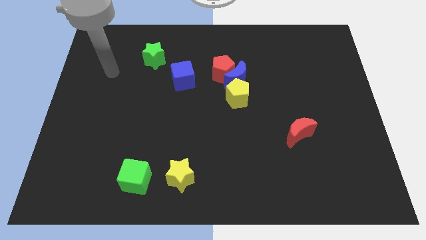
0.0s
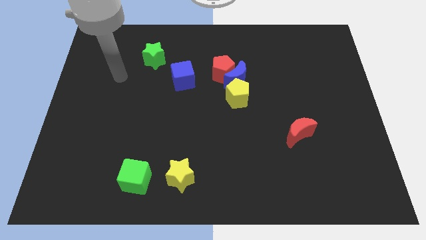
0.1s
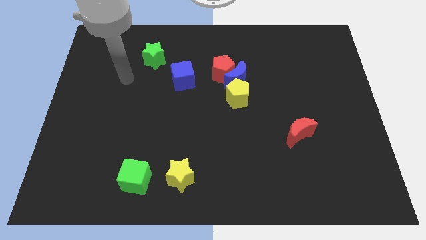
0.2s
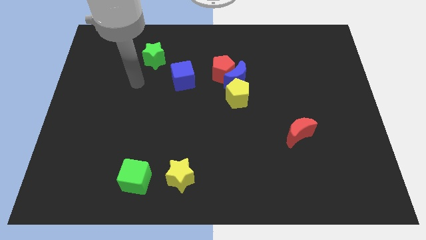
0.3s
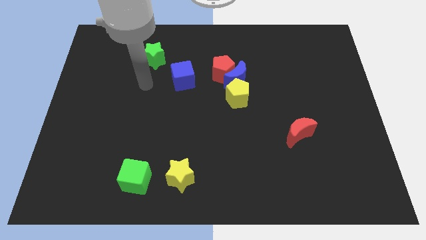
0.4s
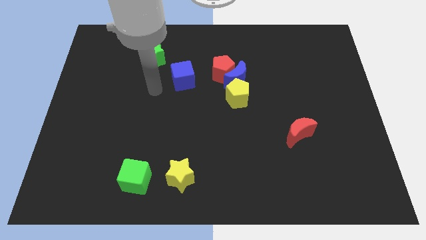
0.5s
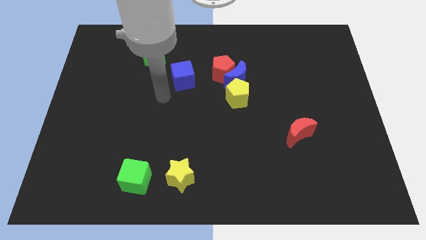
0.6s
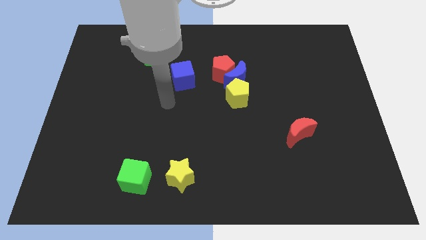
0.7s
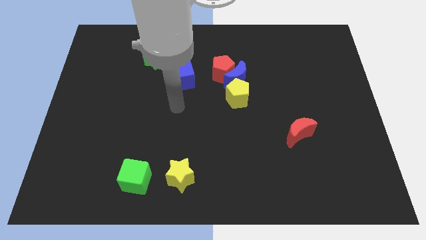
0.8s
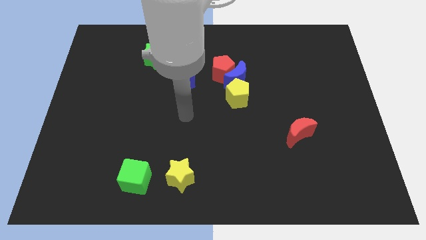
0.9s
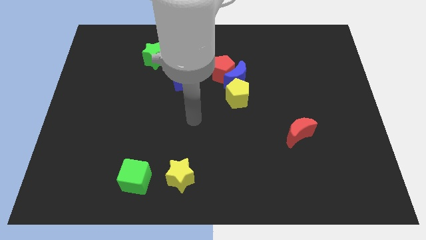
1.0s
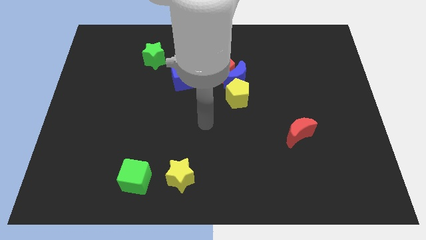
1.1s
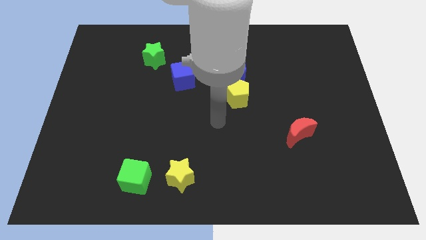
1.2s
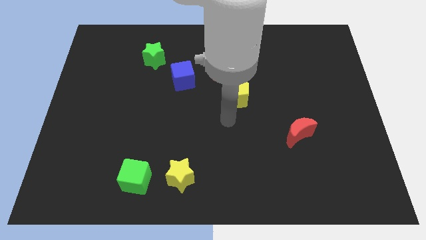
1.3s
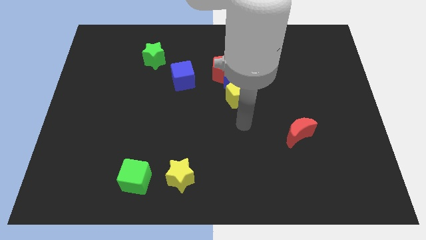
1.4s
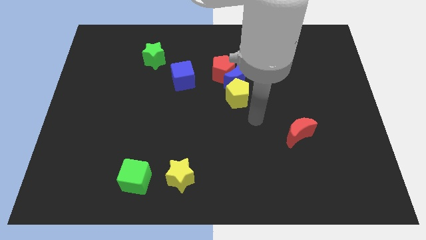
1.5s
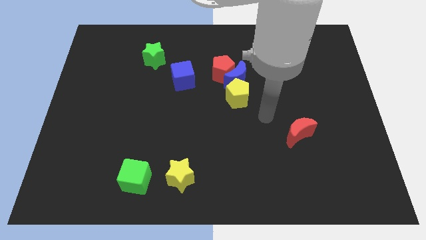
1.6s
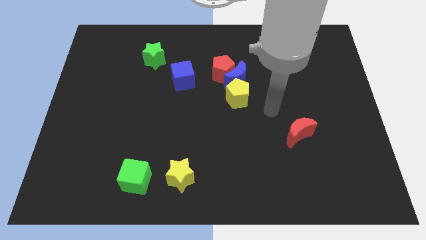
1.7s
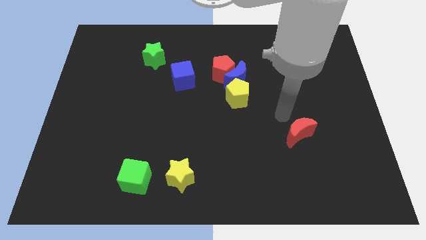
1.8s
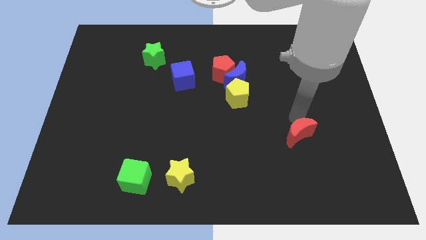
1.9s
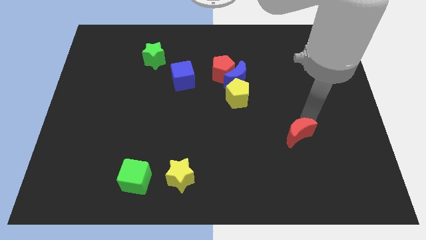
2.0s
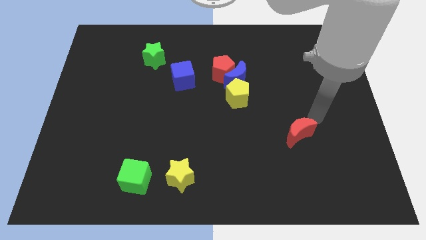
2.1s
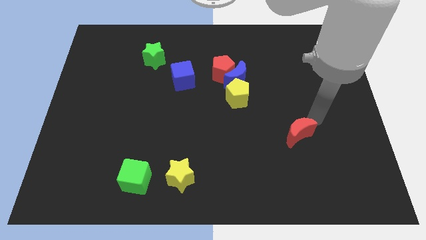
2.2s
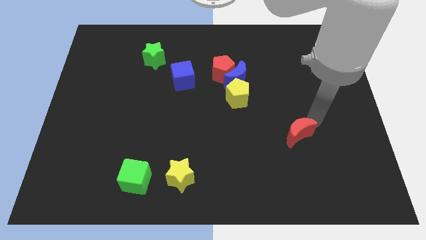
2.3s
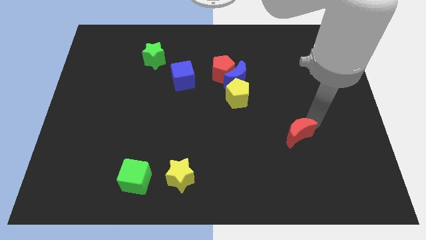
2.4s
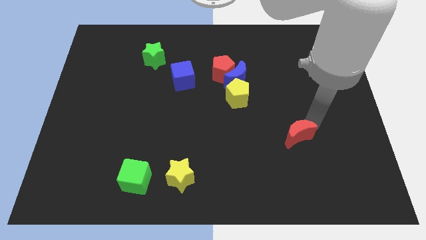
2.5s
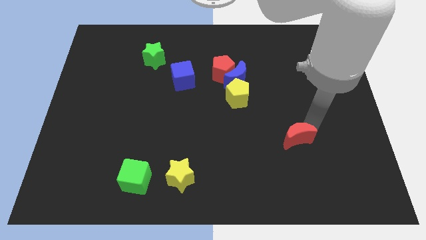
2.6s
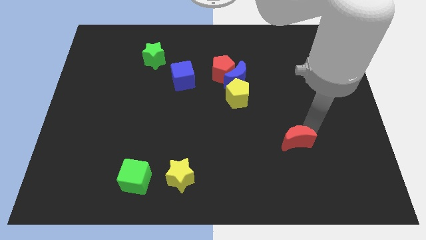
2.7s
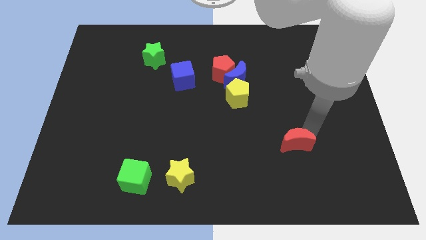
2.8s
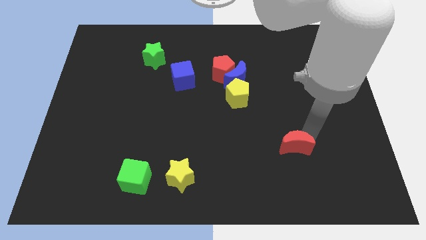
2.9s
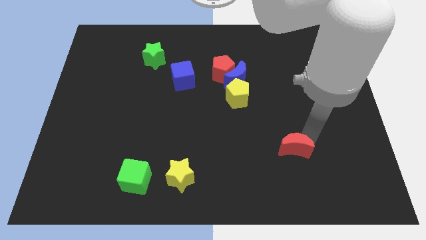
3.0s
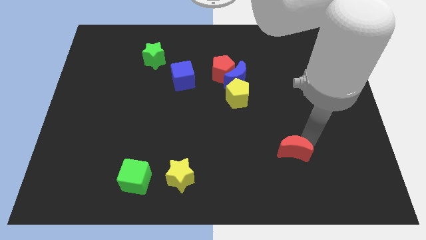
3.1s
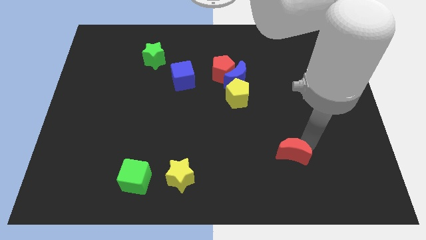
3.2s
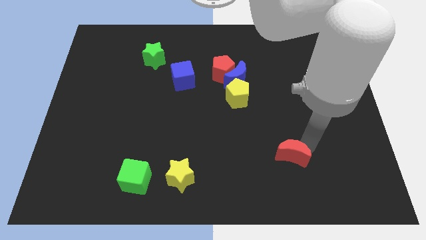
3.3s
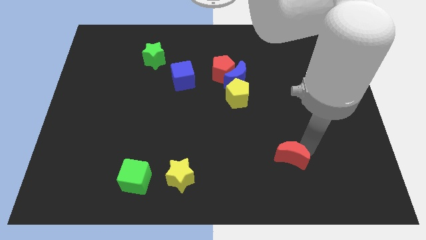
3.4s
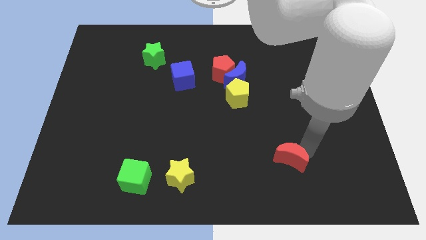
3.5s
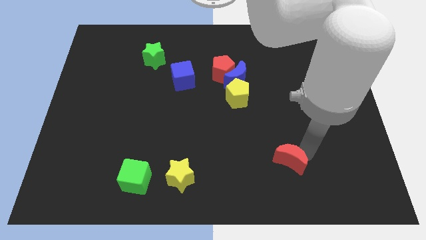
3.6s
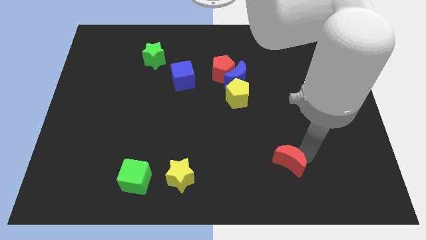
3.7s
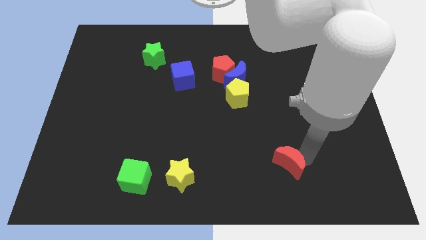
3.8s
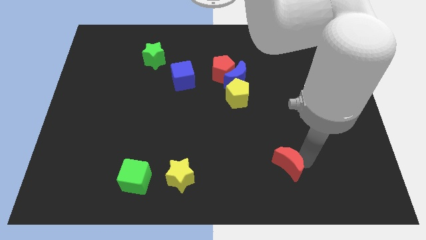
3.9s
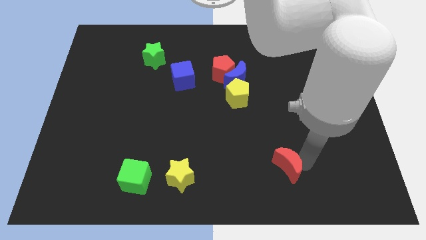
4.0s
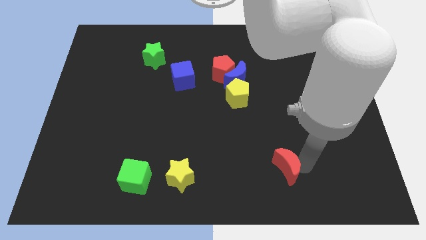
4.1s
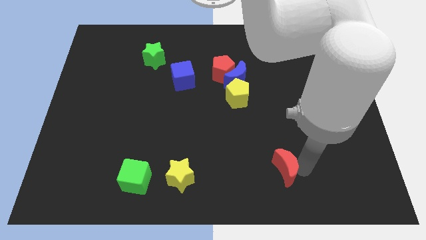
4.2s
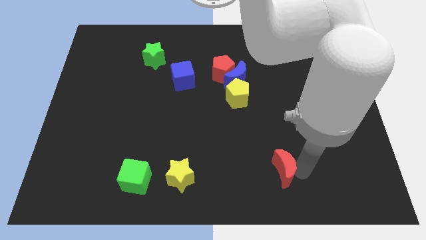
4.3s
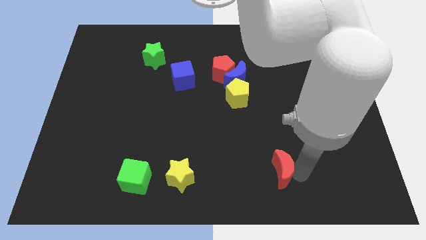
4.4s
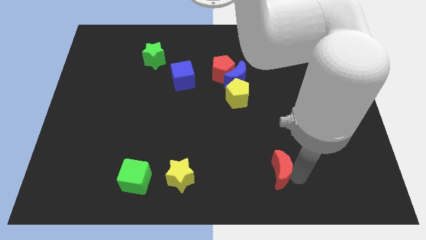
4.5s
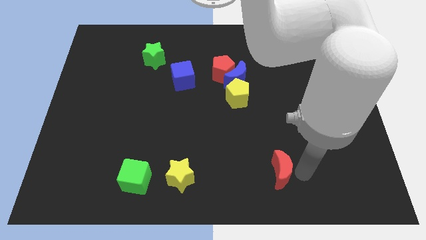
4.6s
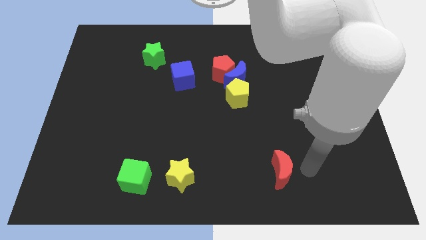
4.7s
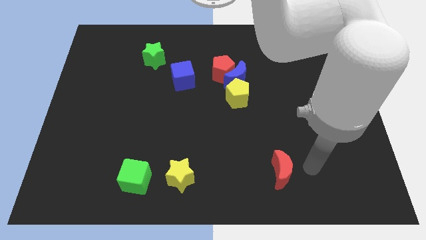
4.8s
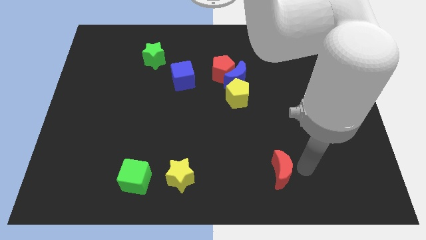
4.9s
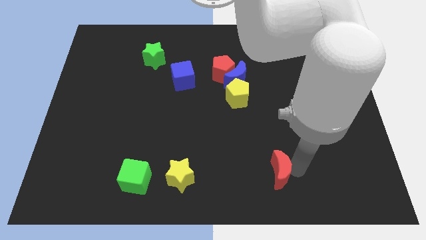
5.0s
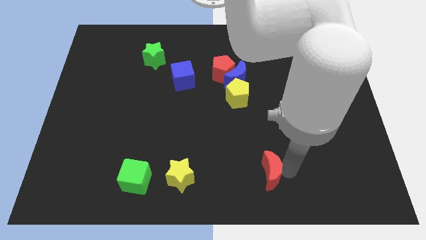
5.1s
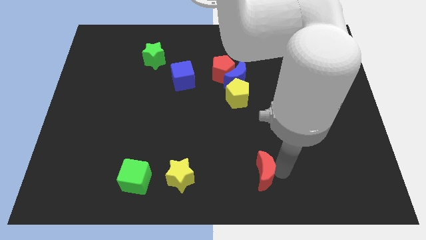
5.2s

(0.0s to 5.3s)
put the red moon to the bottom

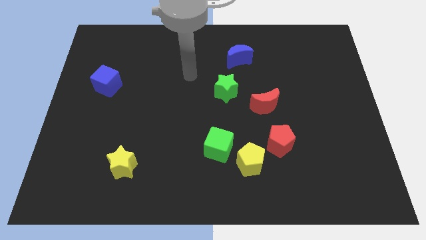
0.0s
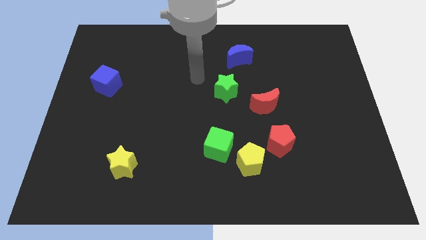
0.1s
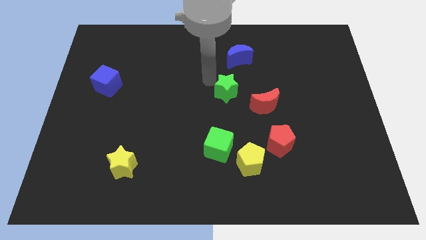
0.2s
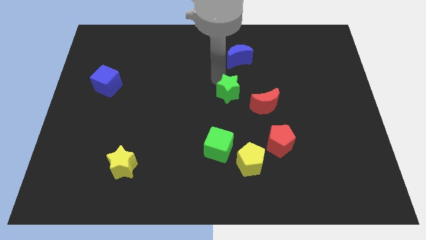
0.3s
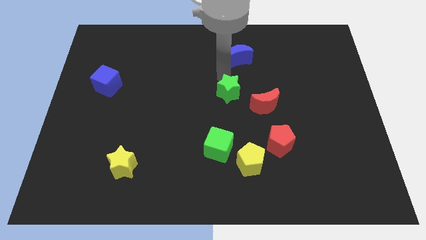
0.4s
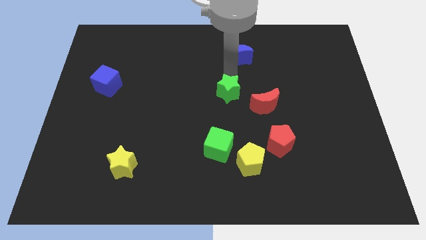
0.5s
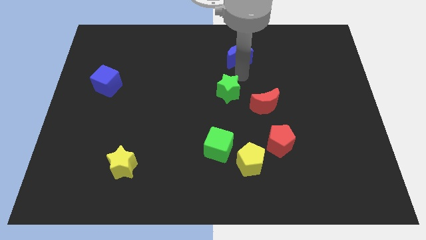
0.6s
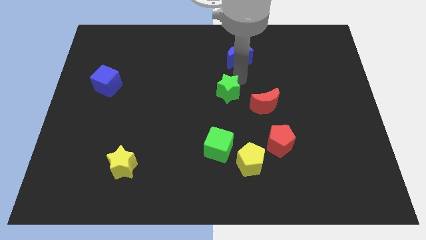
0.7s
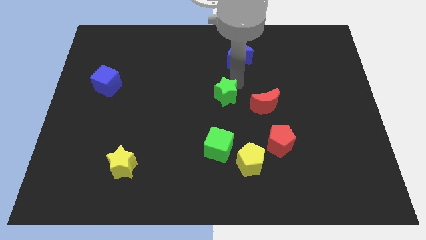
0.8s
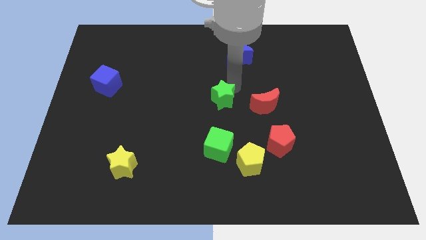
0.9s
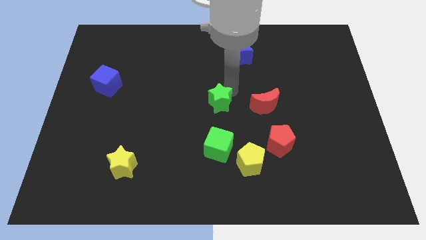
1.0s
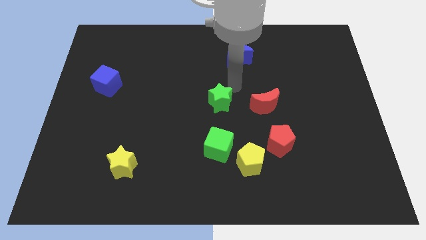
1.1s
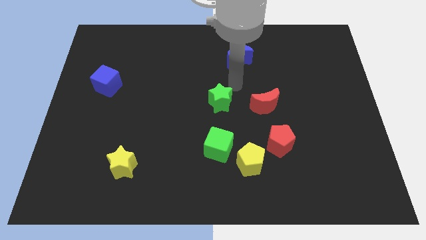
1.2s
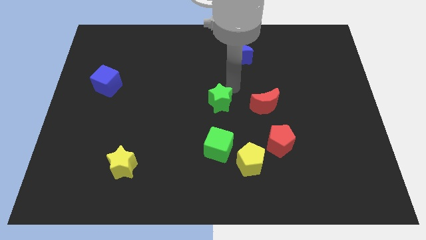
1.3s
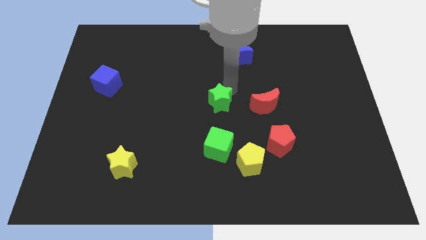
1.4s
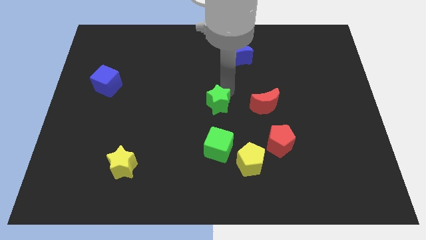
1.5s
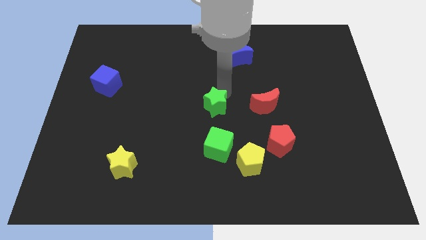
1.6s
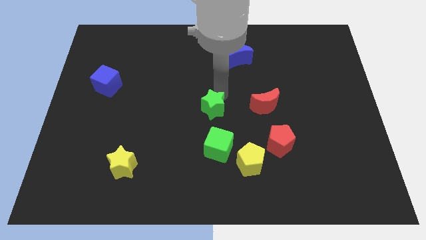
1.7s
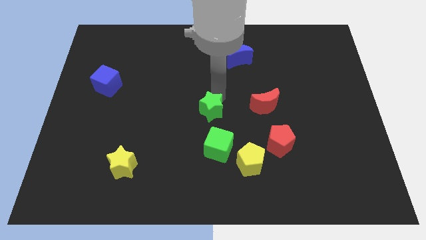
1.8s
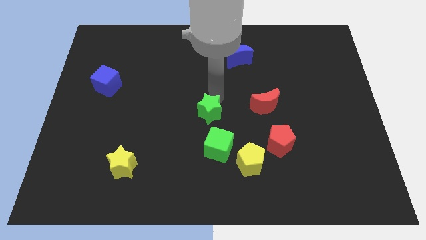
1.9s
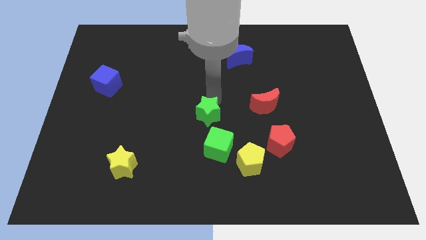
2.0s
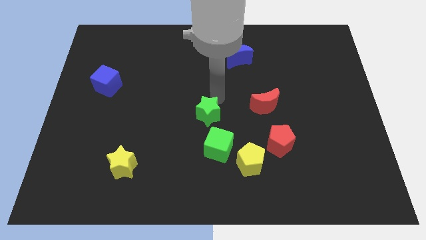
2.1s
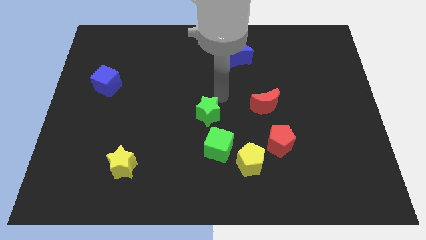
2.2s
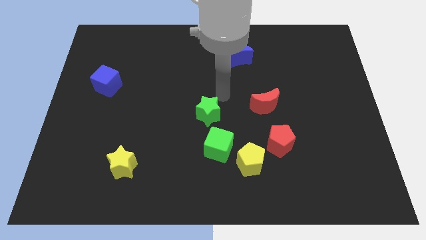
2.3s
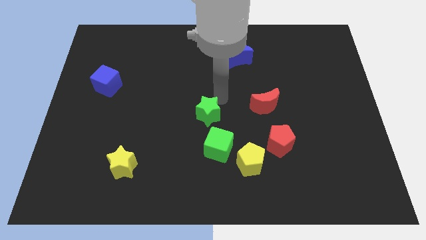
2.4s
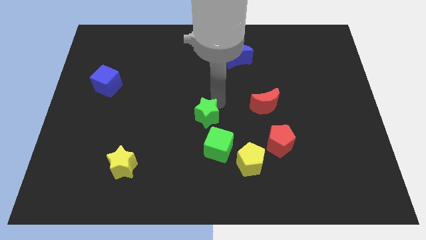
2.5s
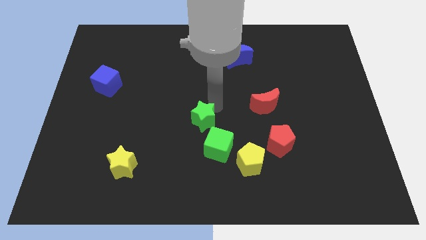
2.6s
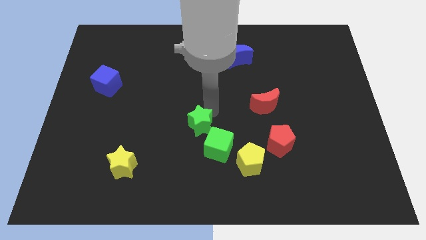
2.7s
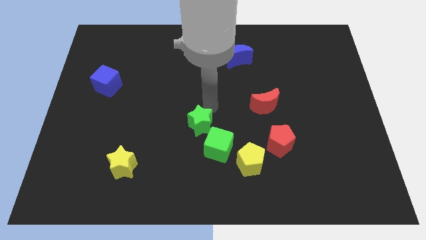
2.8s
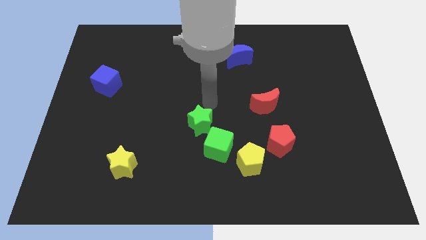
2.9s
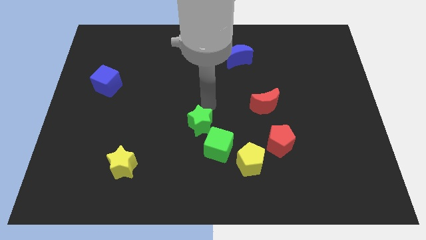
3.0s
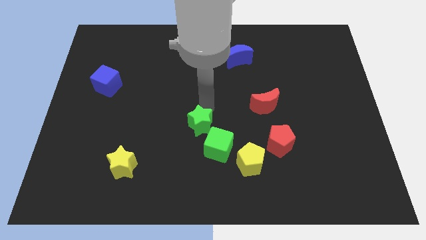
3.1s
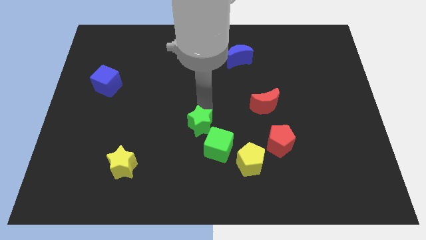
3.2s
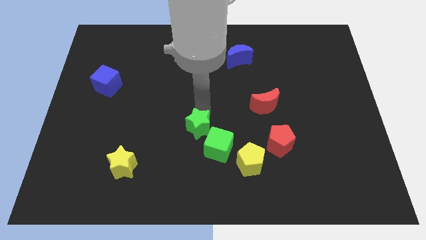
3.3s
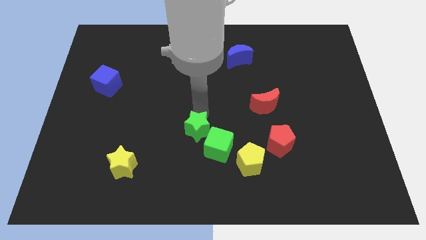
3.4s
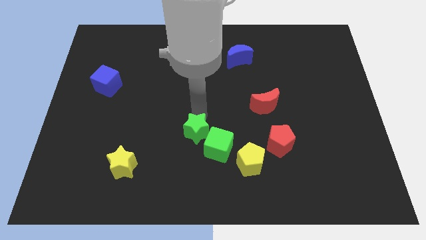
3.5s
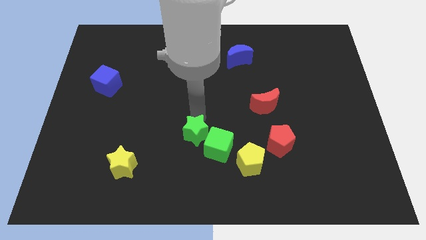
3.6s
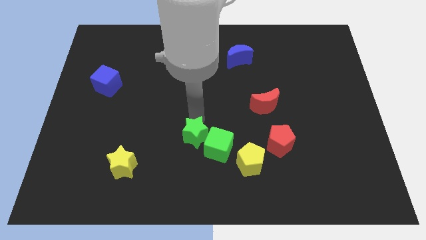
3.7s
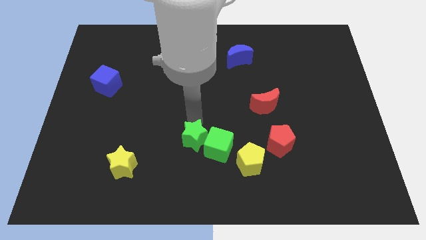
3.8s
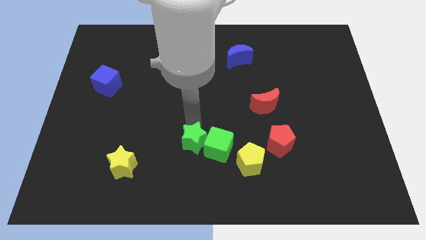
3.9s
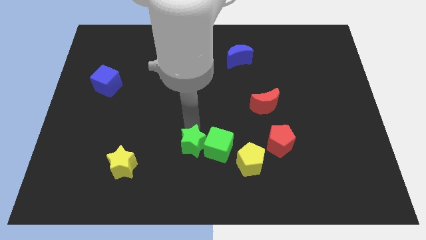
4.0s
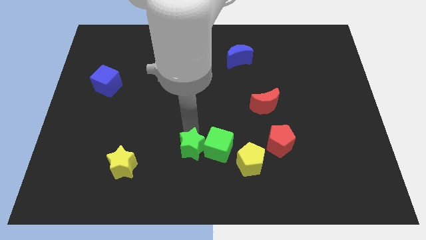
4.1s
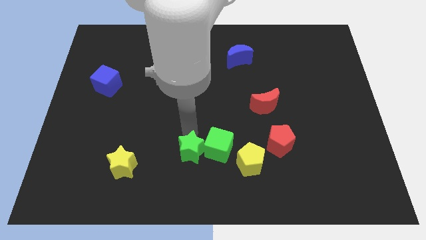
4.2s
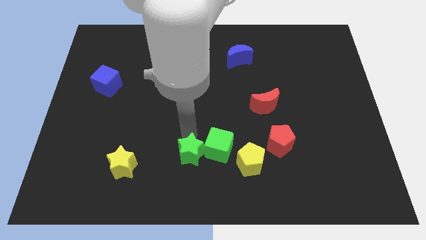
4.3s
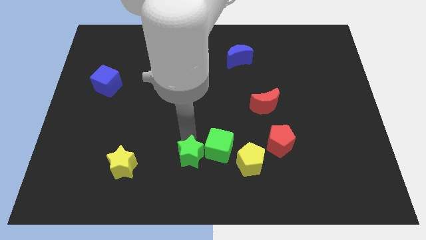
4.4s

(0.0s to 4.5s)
move the green star to the bottom
